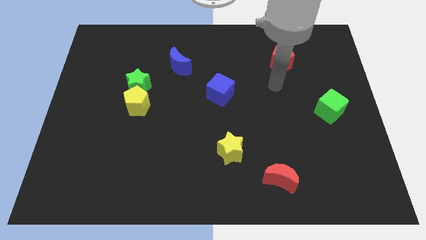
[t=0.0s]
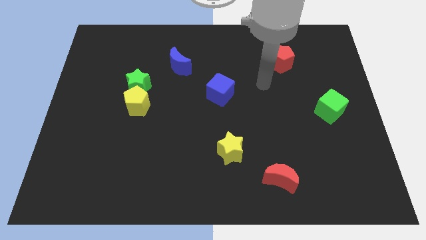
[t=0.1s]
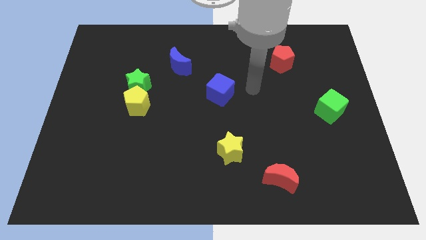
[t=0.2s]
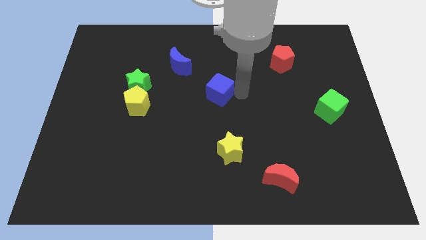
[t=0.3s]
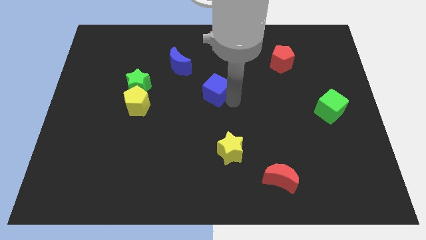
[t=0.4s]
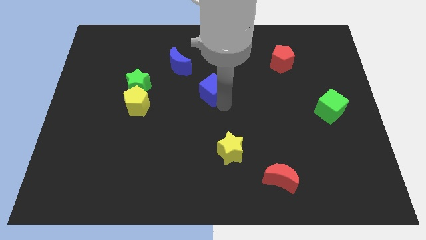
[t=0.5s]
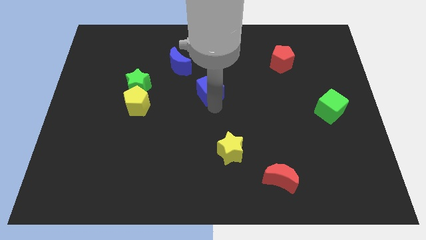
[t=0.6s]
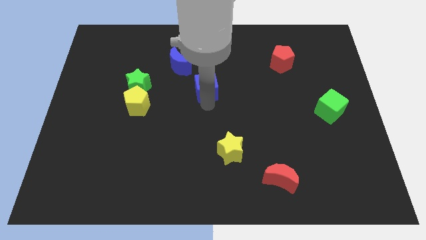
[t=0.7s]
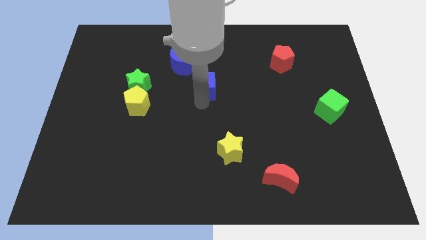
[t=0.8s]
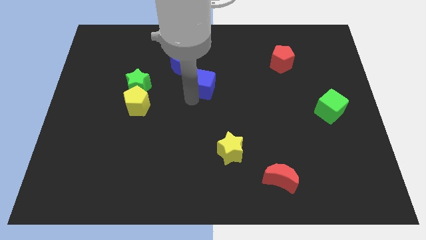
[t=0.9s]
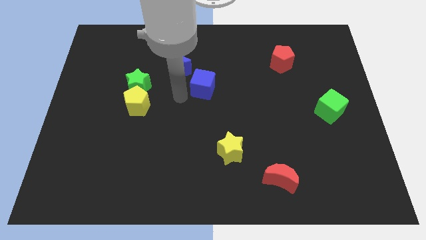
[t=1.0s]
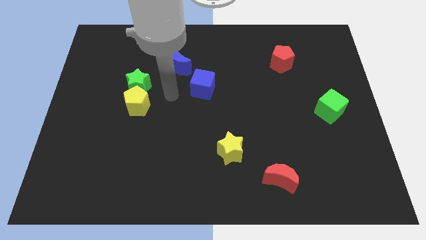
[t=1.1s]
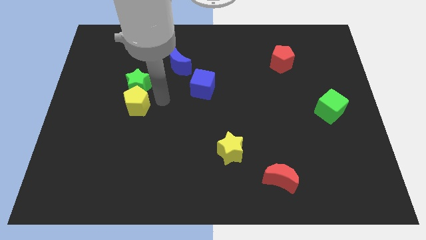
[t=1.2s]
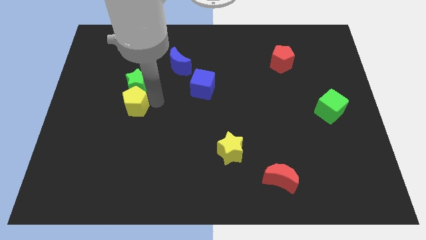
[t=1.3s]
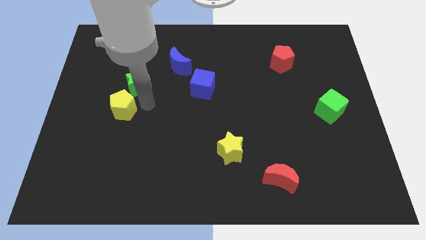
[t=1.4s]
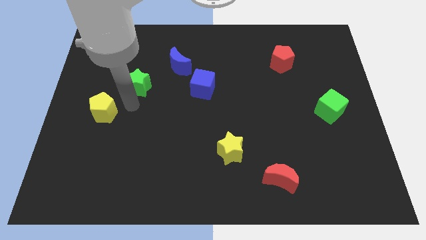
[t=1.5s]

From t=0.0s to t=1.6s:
separate the green star from the yellow pentagon

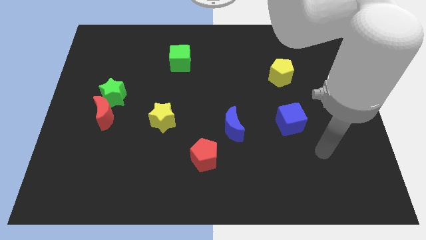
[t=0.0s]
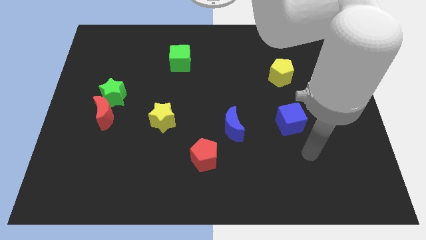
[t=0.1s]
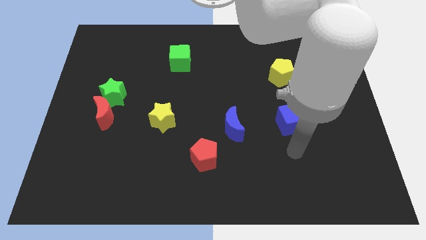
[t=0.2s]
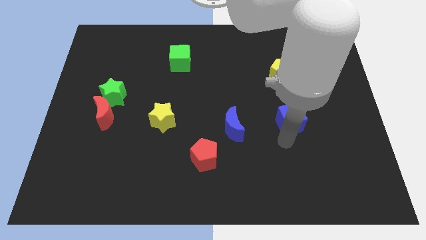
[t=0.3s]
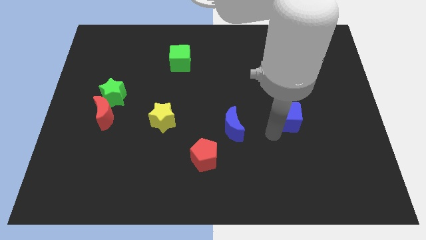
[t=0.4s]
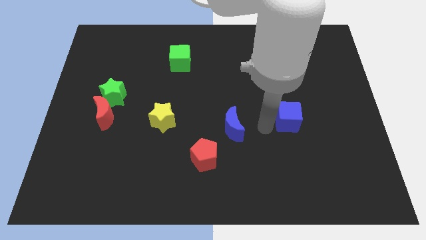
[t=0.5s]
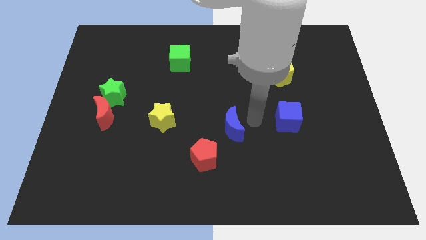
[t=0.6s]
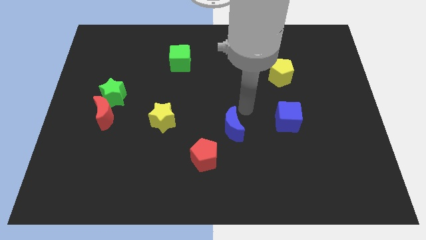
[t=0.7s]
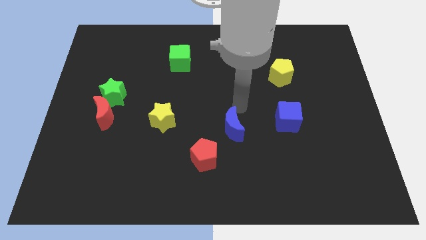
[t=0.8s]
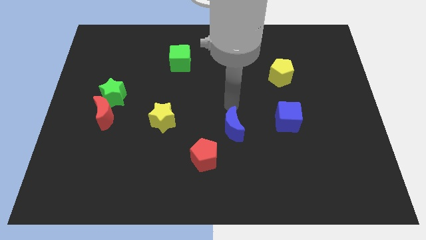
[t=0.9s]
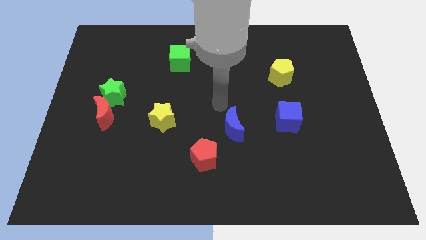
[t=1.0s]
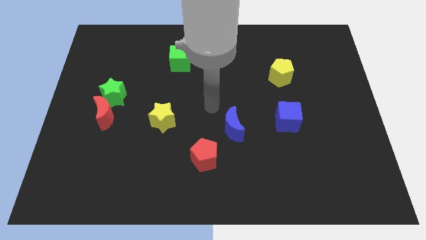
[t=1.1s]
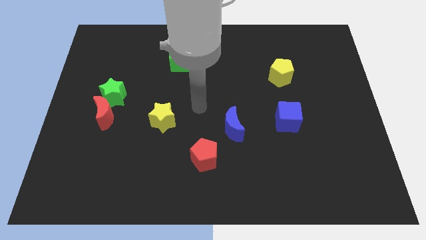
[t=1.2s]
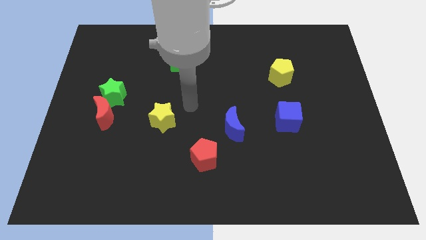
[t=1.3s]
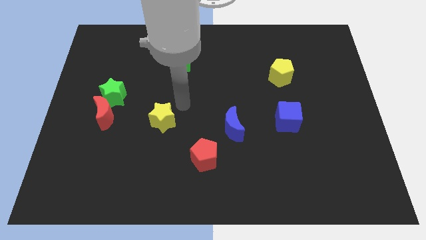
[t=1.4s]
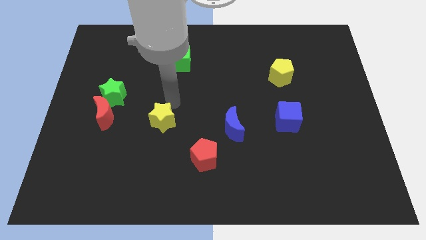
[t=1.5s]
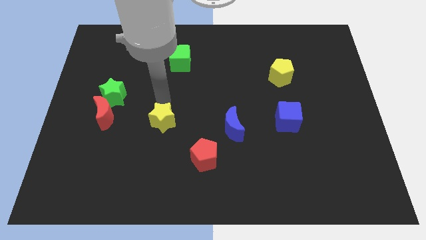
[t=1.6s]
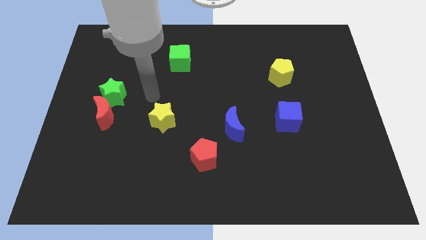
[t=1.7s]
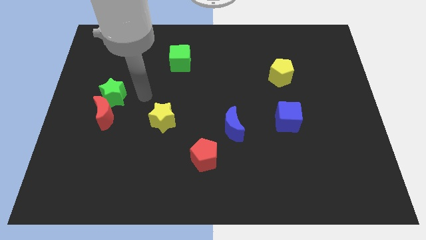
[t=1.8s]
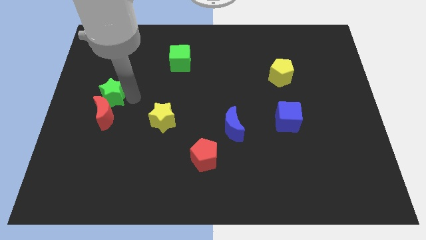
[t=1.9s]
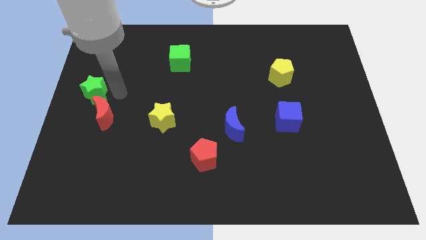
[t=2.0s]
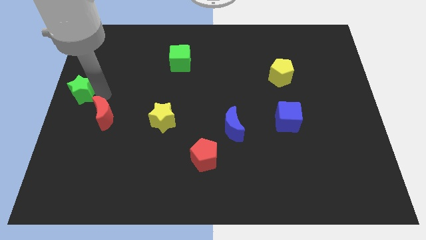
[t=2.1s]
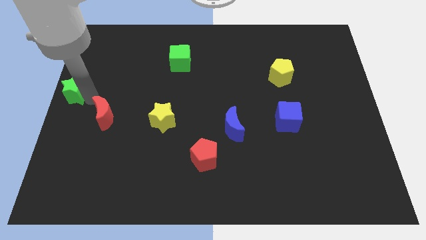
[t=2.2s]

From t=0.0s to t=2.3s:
separate the red moon from the green star

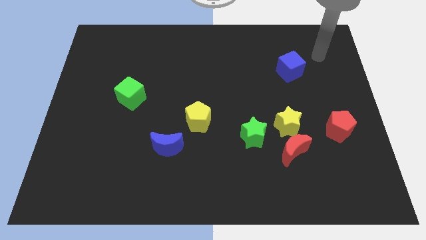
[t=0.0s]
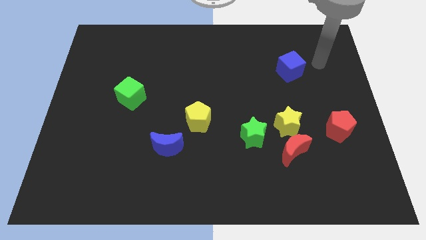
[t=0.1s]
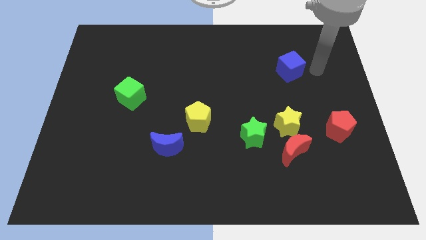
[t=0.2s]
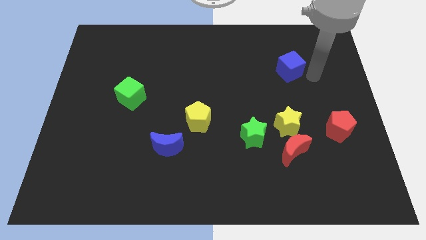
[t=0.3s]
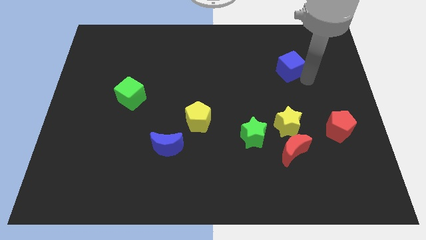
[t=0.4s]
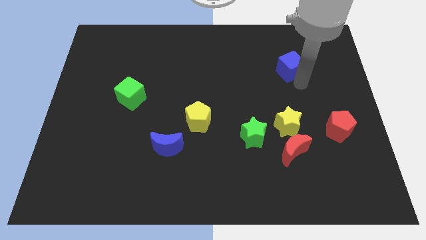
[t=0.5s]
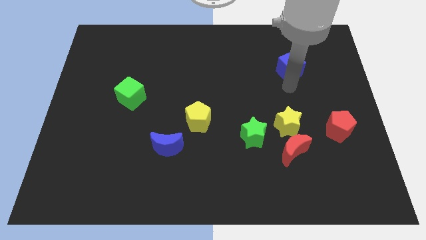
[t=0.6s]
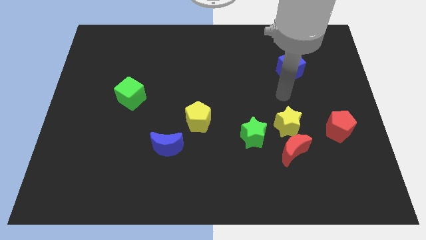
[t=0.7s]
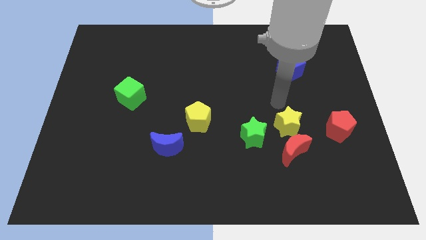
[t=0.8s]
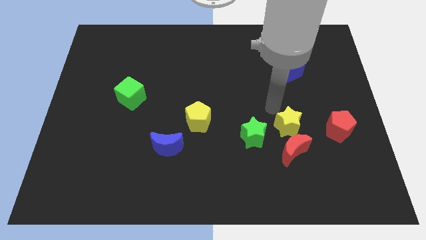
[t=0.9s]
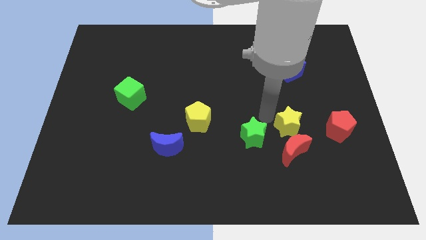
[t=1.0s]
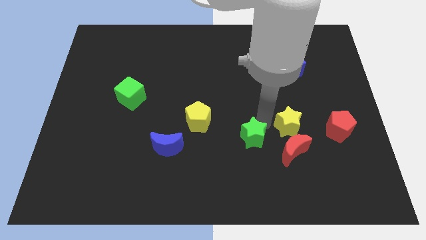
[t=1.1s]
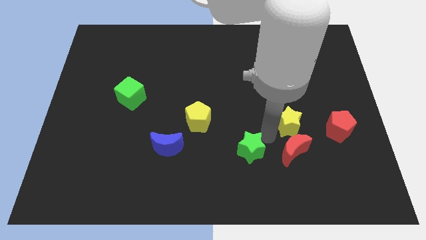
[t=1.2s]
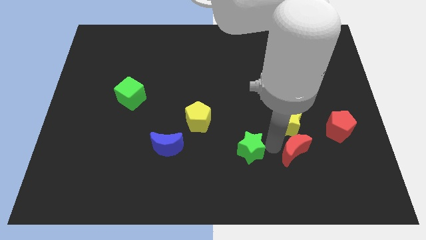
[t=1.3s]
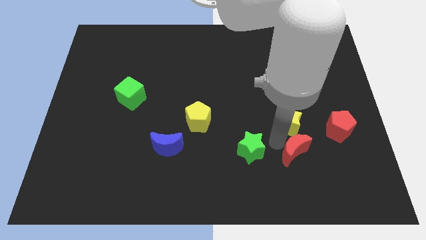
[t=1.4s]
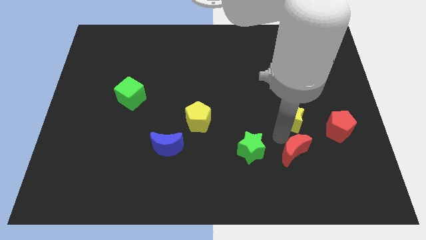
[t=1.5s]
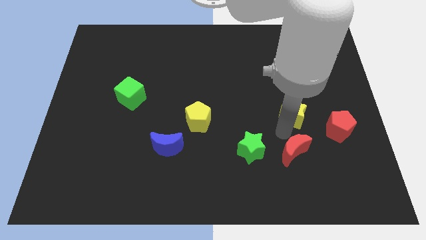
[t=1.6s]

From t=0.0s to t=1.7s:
separate the yellow star from the red moon and green star

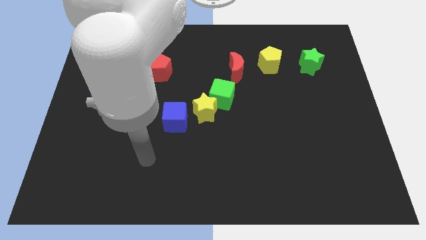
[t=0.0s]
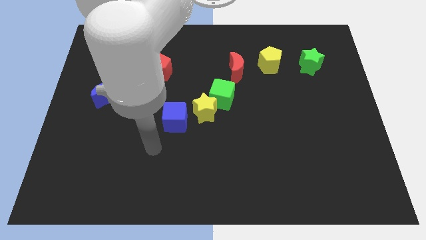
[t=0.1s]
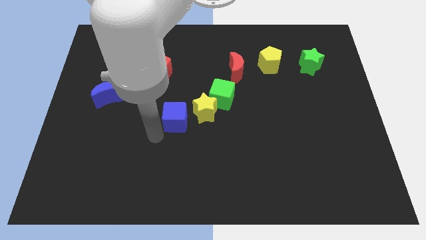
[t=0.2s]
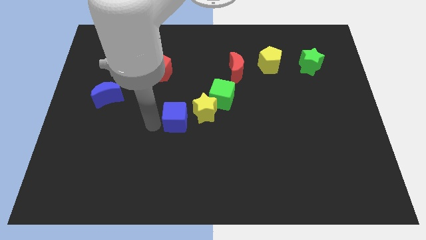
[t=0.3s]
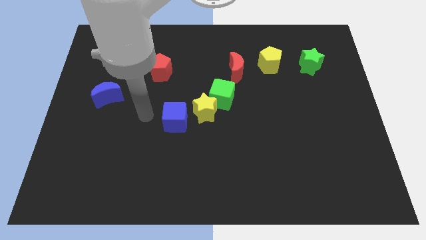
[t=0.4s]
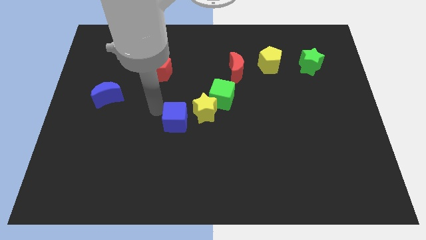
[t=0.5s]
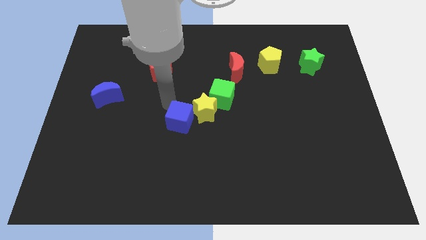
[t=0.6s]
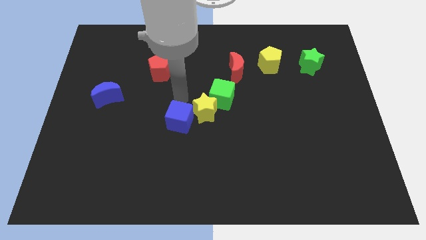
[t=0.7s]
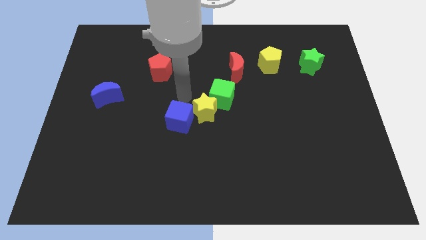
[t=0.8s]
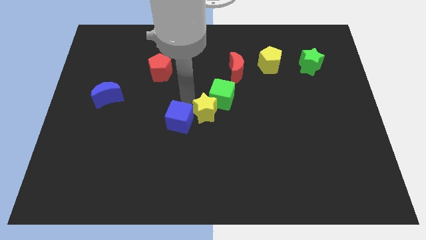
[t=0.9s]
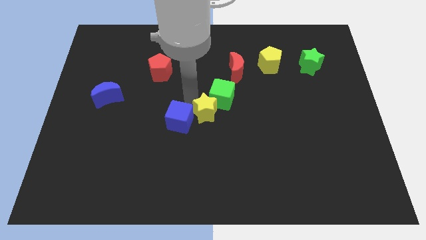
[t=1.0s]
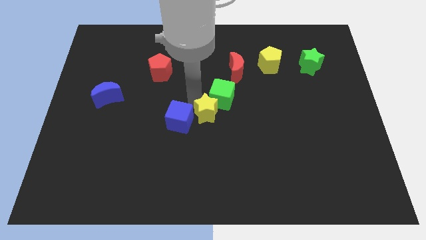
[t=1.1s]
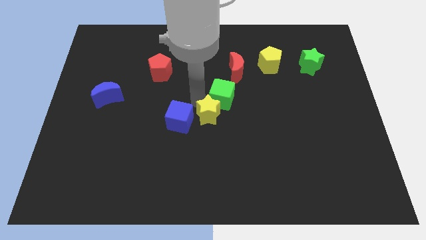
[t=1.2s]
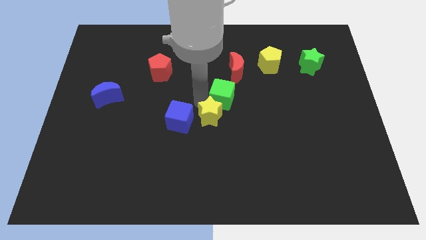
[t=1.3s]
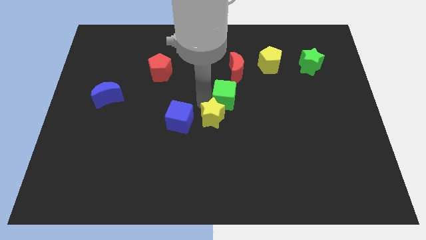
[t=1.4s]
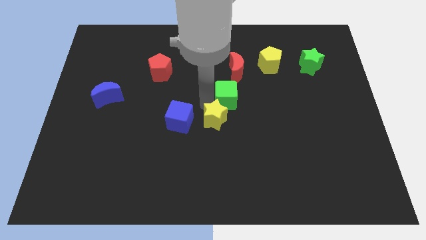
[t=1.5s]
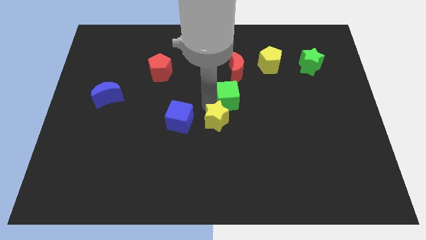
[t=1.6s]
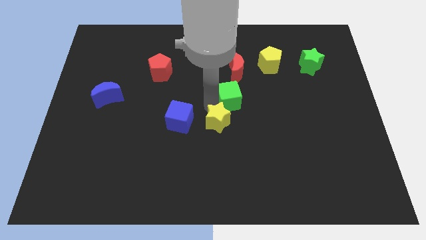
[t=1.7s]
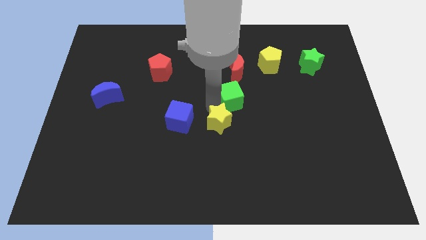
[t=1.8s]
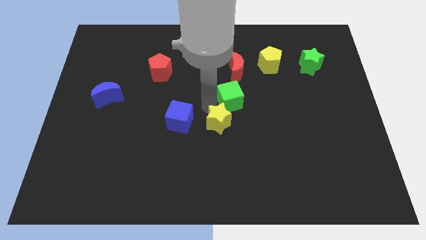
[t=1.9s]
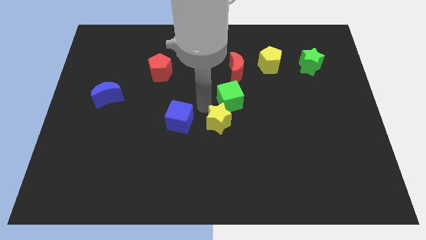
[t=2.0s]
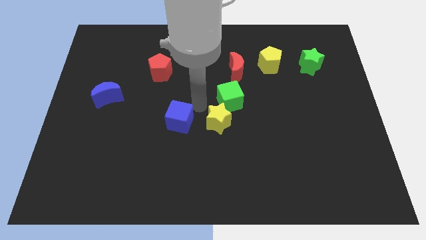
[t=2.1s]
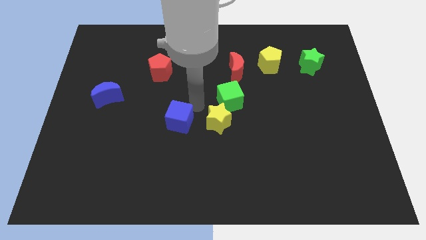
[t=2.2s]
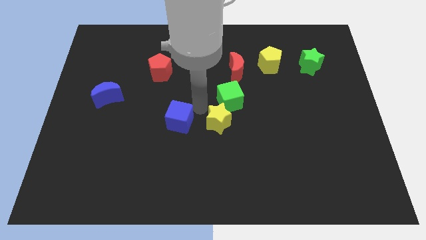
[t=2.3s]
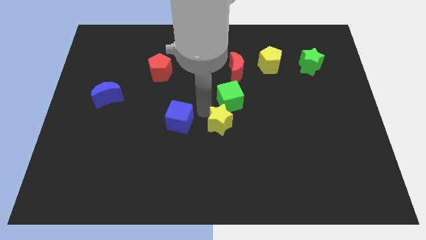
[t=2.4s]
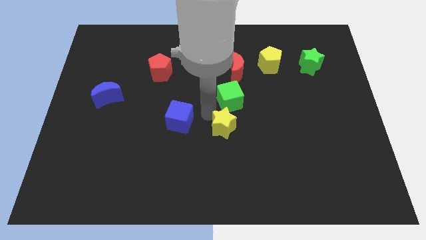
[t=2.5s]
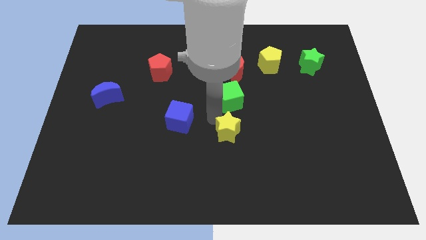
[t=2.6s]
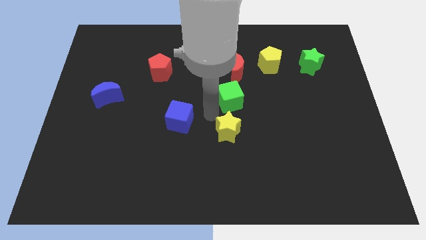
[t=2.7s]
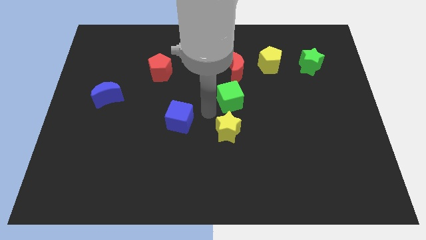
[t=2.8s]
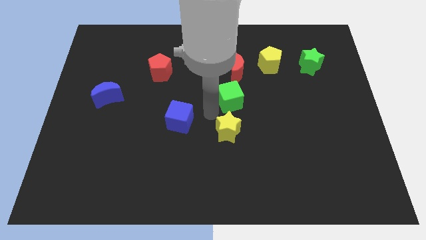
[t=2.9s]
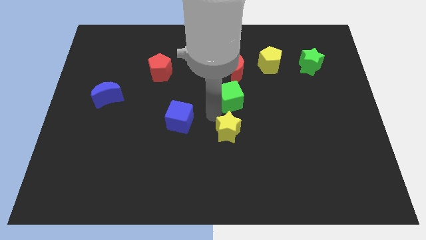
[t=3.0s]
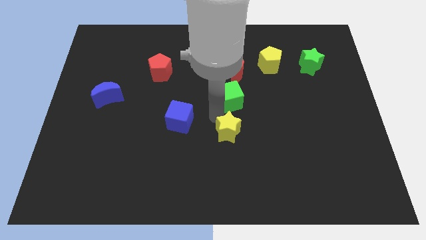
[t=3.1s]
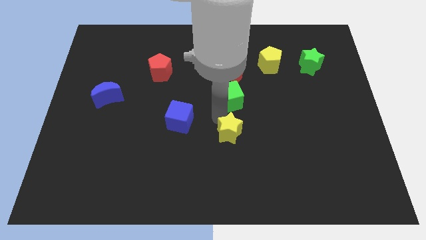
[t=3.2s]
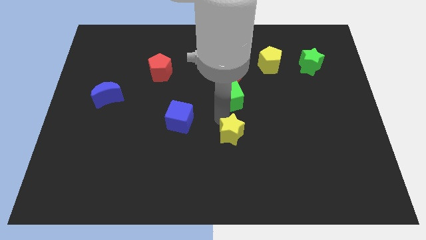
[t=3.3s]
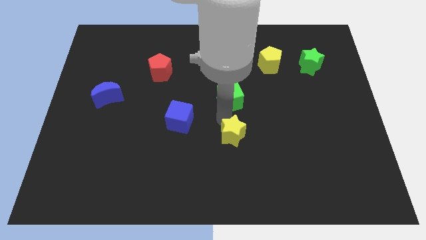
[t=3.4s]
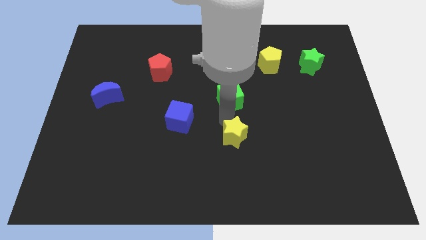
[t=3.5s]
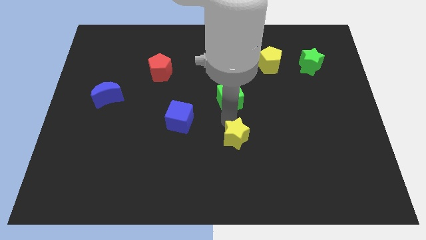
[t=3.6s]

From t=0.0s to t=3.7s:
pull the yellow star apart from the green cube and blue cube
